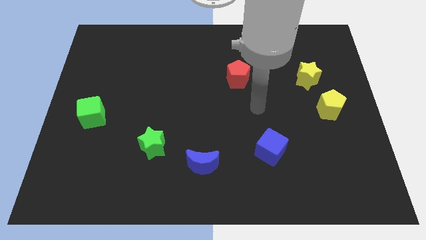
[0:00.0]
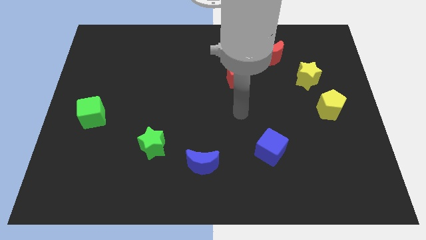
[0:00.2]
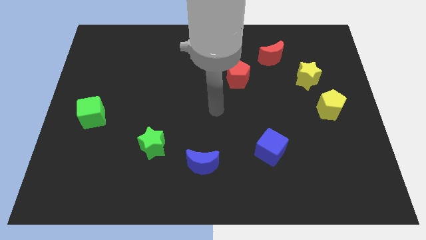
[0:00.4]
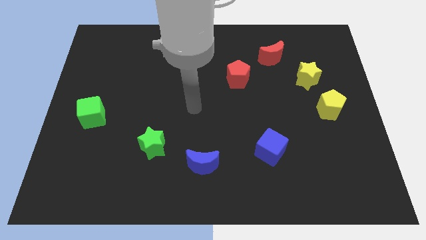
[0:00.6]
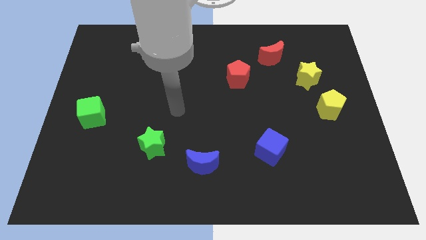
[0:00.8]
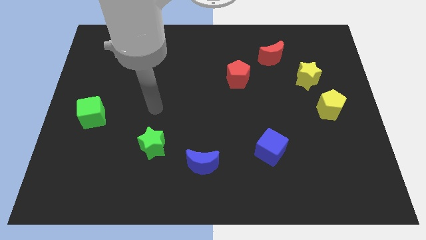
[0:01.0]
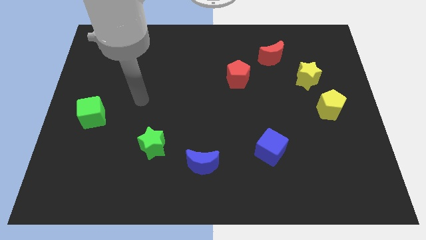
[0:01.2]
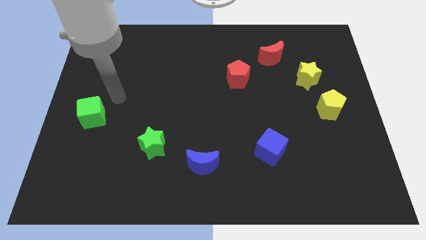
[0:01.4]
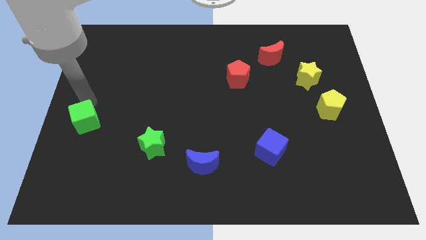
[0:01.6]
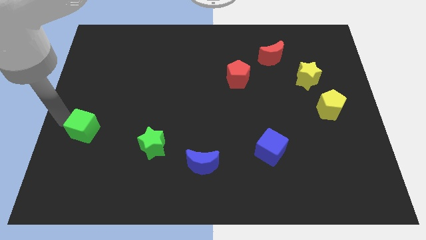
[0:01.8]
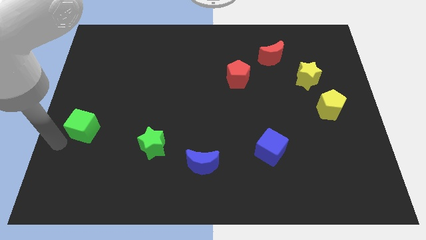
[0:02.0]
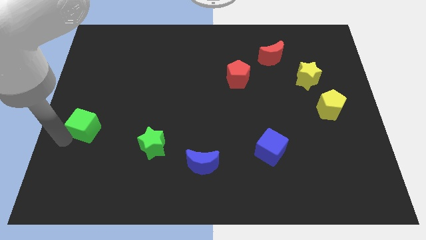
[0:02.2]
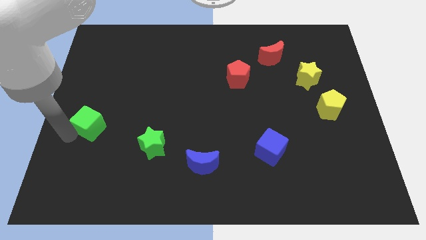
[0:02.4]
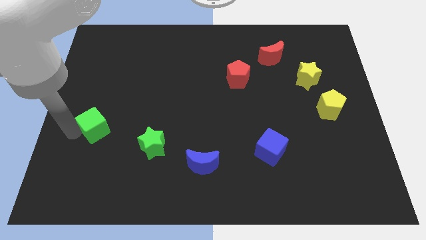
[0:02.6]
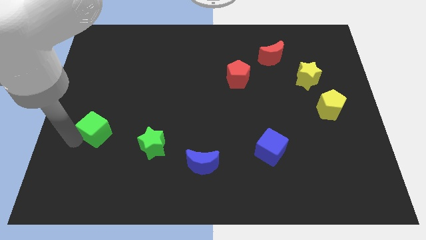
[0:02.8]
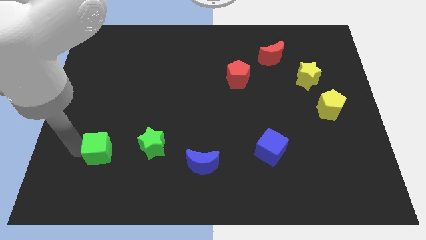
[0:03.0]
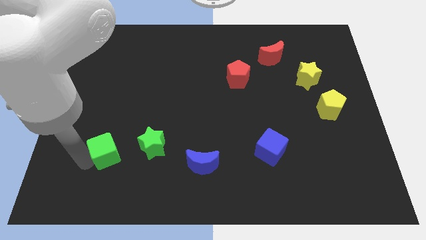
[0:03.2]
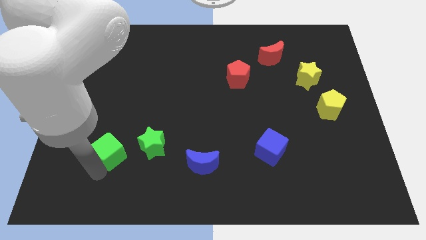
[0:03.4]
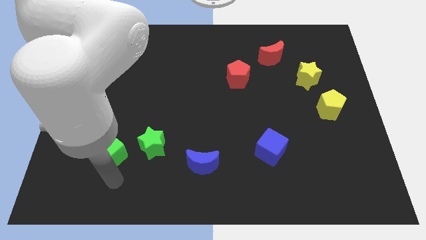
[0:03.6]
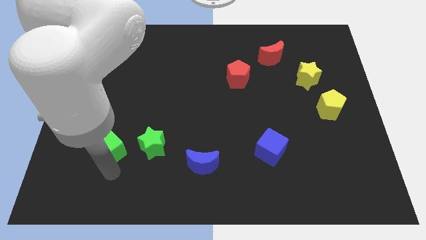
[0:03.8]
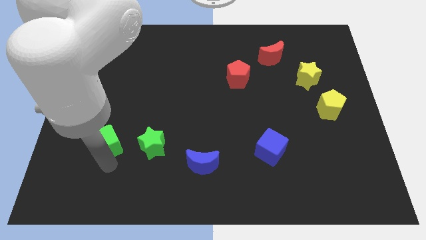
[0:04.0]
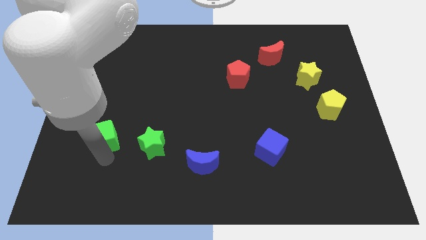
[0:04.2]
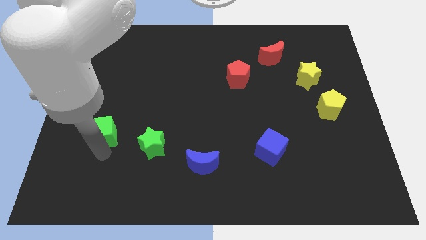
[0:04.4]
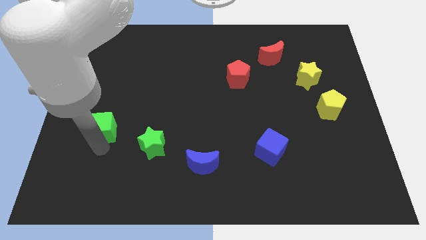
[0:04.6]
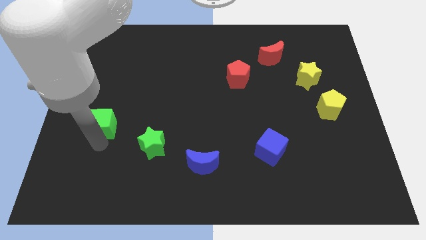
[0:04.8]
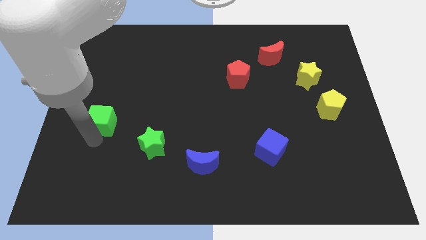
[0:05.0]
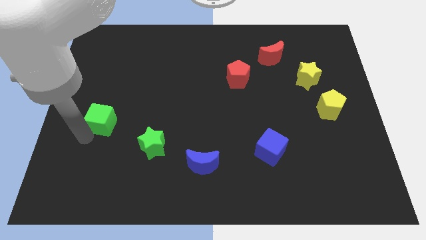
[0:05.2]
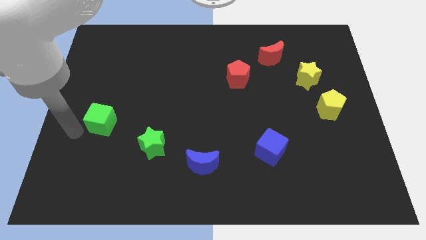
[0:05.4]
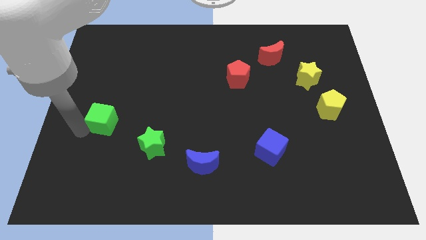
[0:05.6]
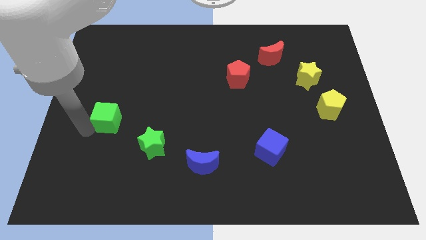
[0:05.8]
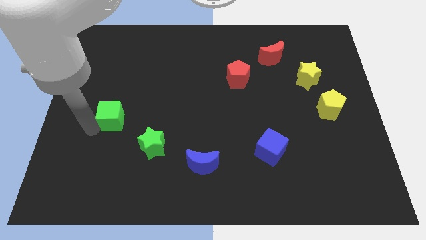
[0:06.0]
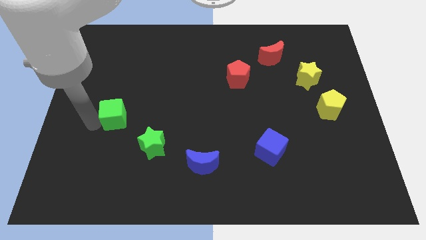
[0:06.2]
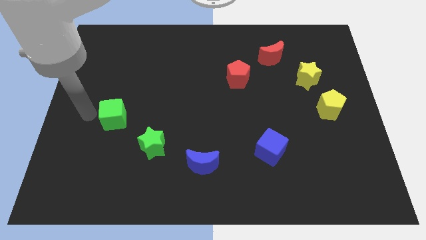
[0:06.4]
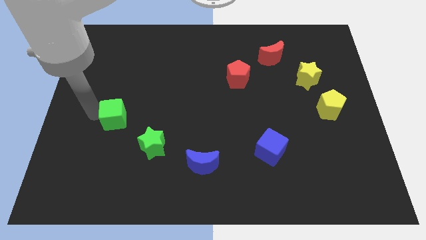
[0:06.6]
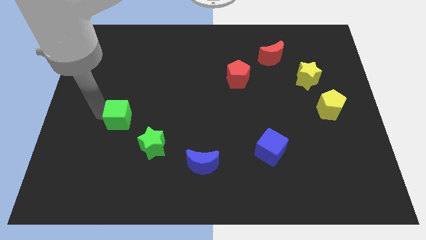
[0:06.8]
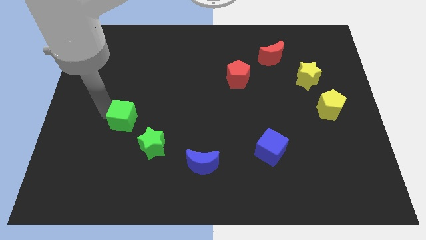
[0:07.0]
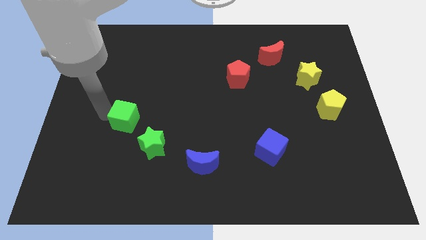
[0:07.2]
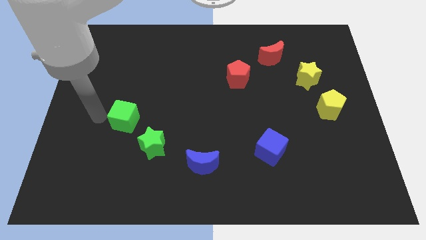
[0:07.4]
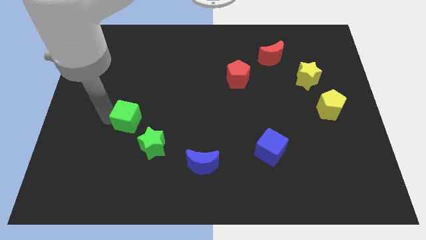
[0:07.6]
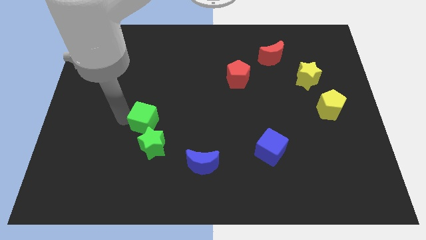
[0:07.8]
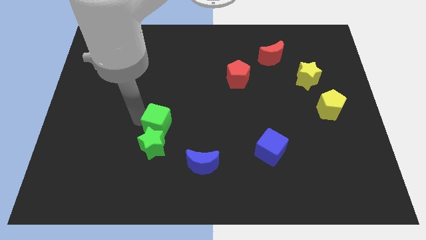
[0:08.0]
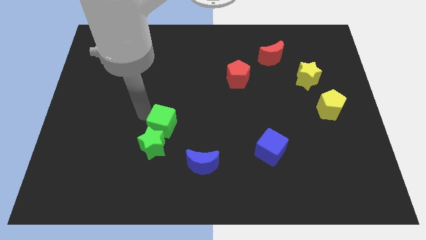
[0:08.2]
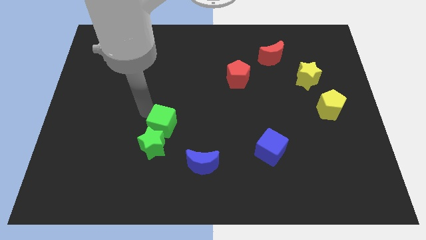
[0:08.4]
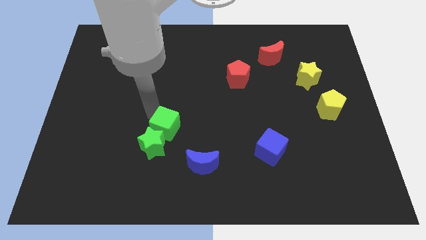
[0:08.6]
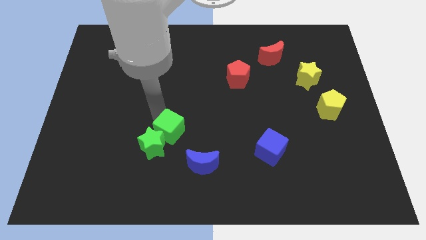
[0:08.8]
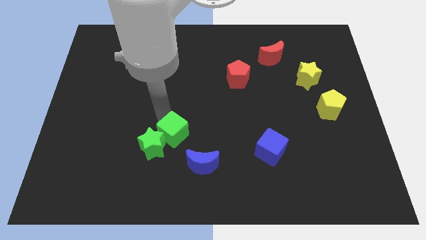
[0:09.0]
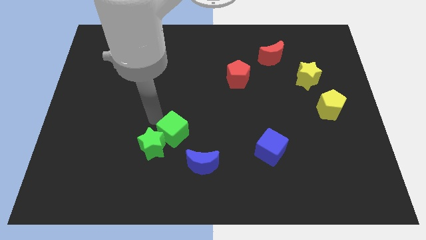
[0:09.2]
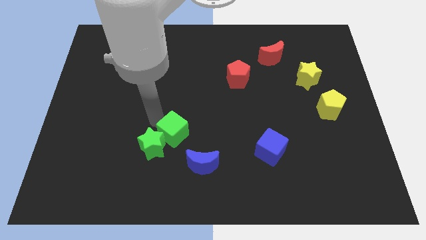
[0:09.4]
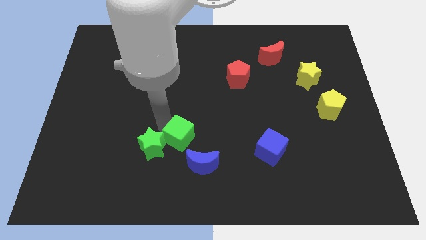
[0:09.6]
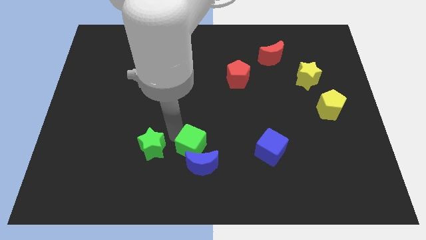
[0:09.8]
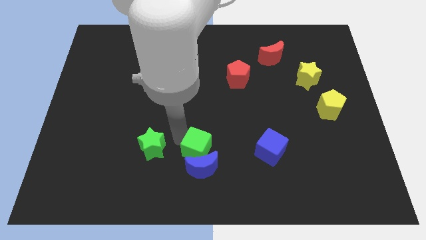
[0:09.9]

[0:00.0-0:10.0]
move the green cube to the top right side of the blue moon

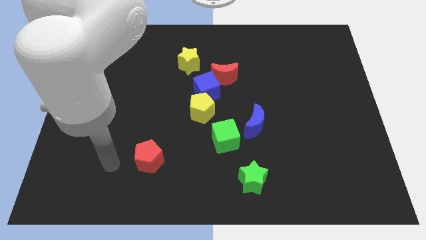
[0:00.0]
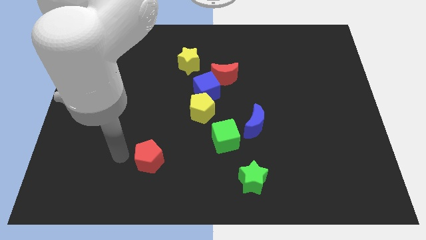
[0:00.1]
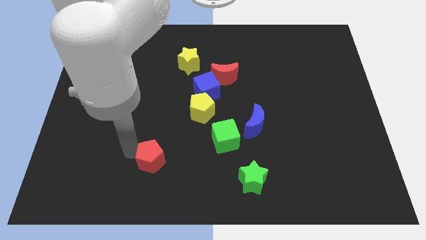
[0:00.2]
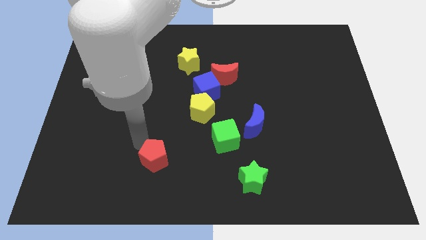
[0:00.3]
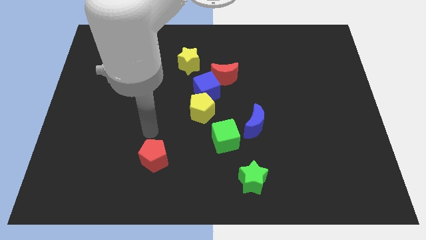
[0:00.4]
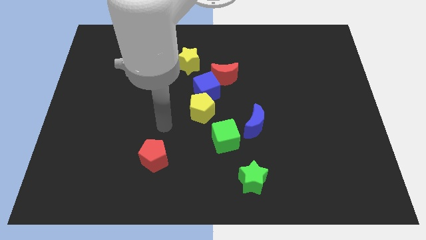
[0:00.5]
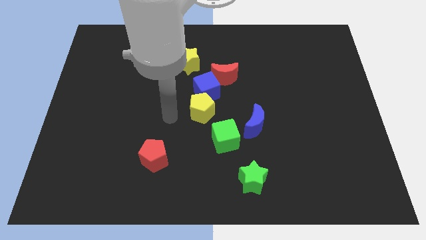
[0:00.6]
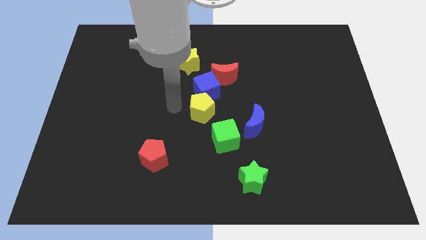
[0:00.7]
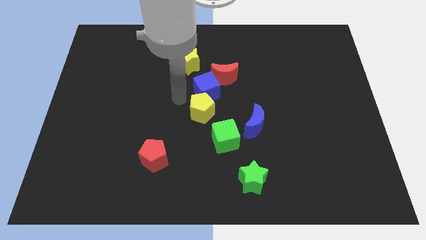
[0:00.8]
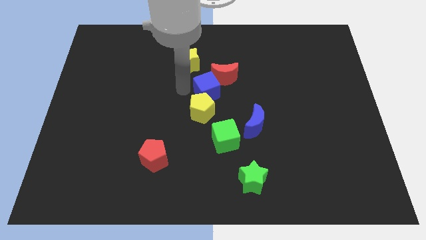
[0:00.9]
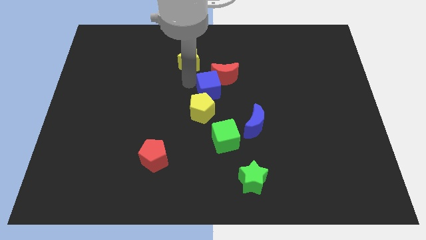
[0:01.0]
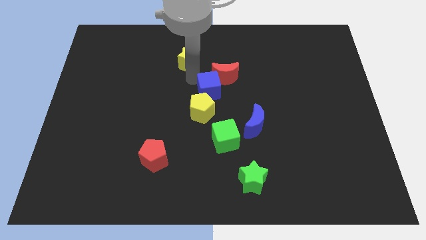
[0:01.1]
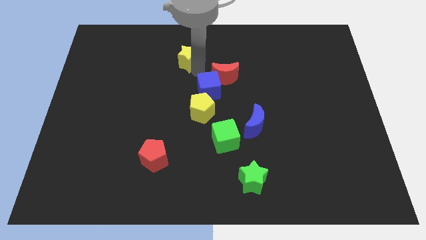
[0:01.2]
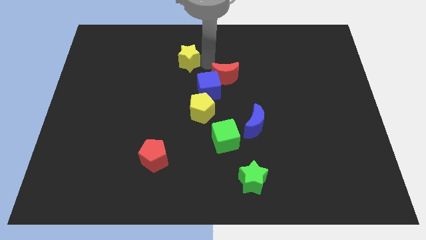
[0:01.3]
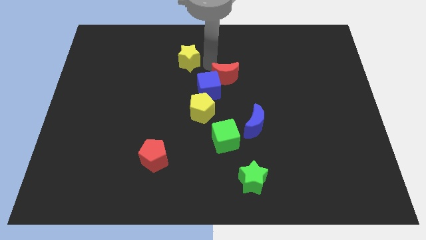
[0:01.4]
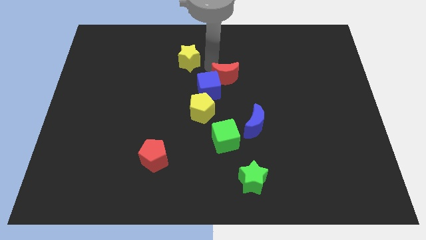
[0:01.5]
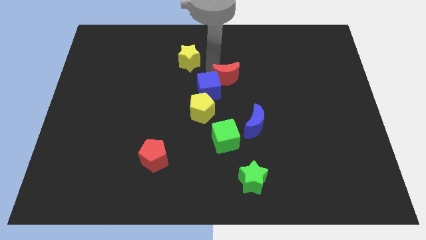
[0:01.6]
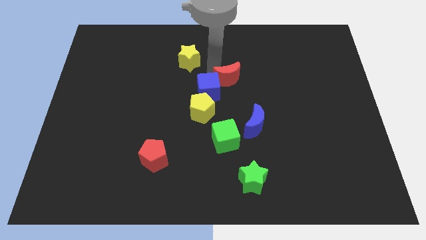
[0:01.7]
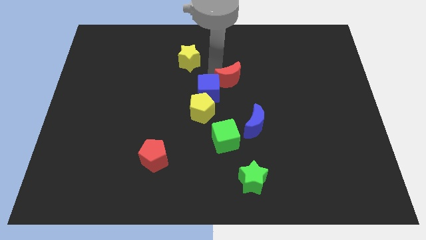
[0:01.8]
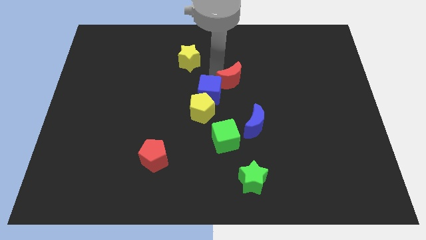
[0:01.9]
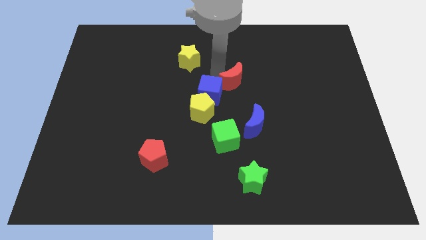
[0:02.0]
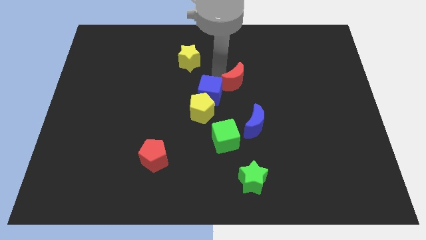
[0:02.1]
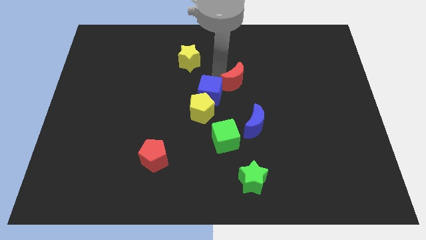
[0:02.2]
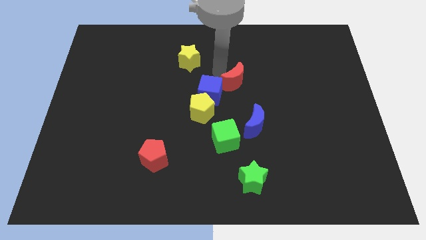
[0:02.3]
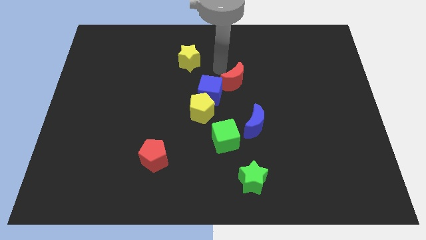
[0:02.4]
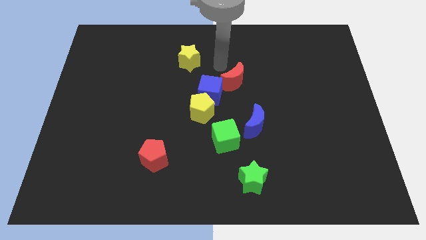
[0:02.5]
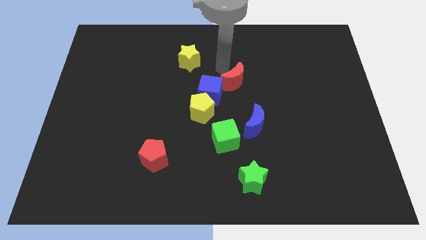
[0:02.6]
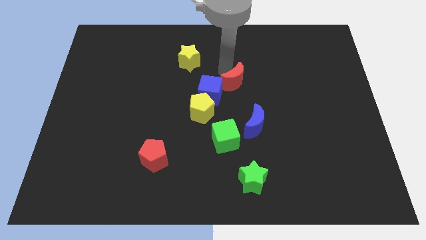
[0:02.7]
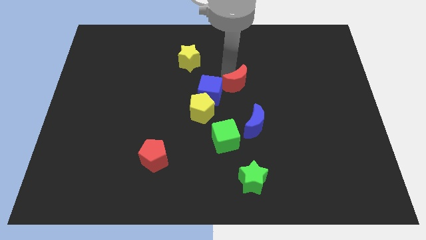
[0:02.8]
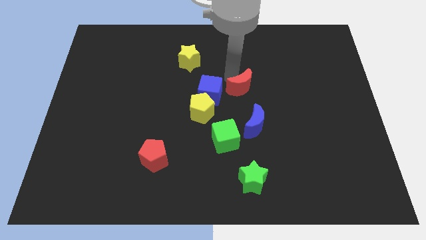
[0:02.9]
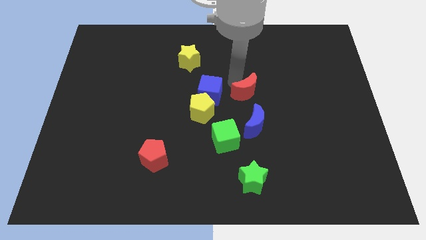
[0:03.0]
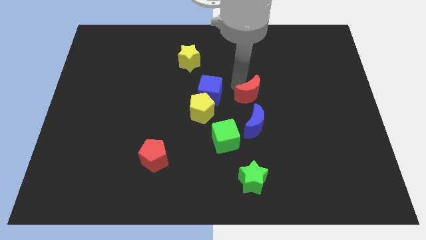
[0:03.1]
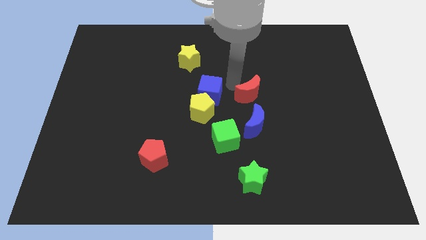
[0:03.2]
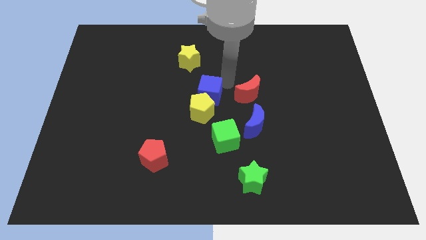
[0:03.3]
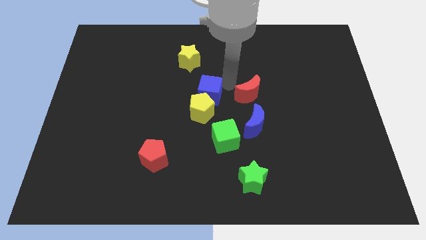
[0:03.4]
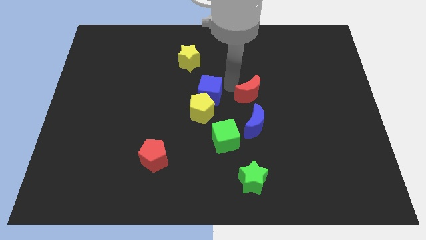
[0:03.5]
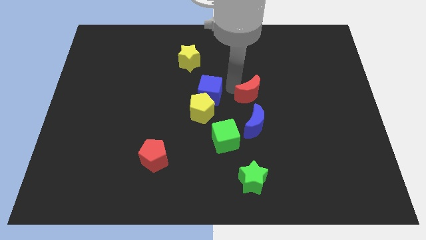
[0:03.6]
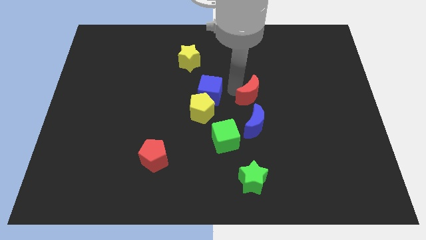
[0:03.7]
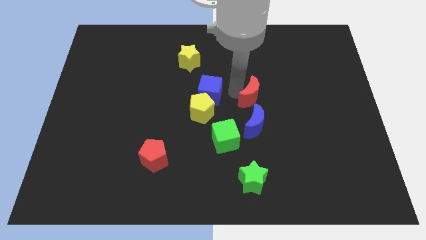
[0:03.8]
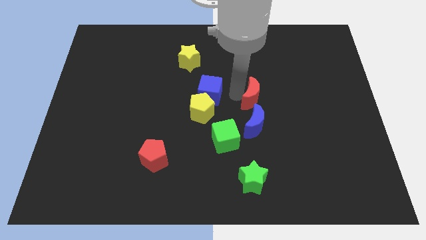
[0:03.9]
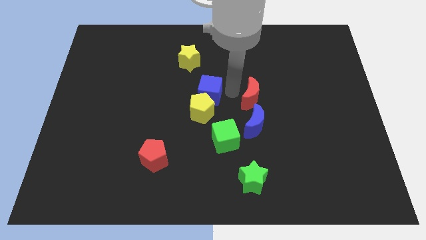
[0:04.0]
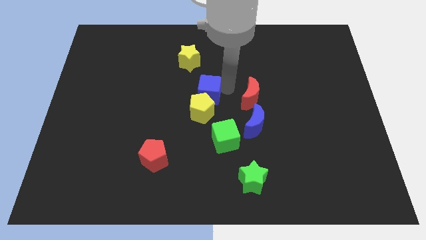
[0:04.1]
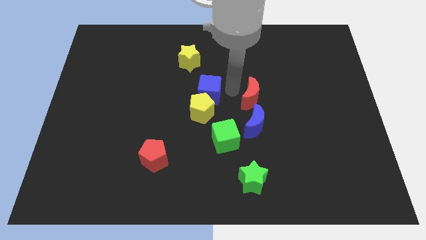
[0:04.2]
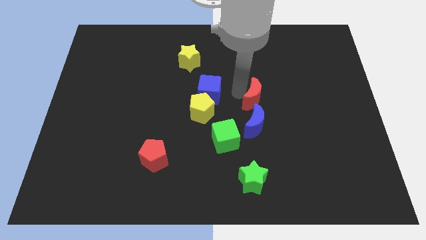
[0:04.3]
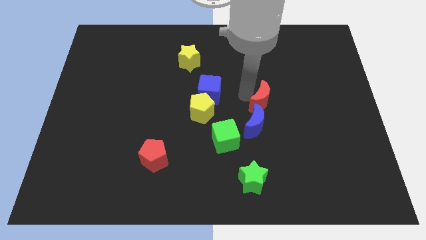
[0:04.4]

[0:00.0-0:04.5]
push the red moon to the top right of the blue moon
